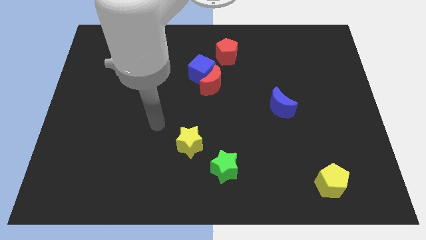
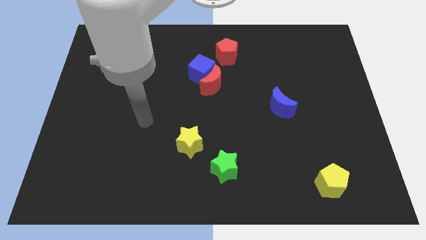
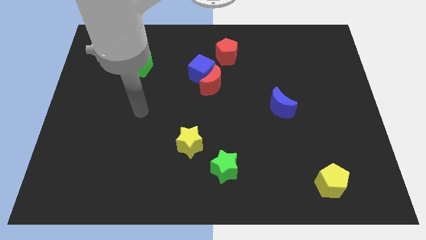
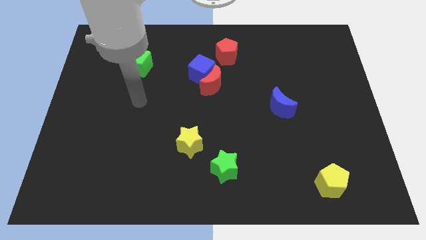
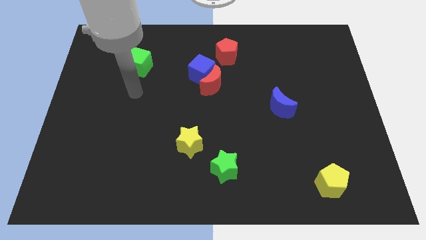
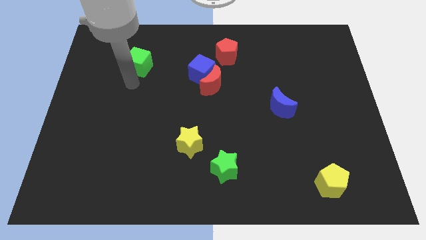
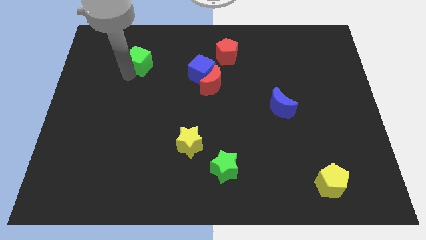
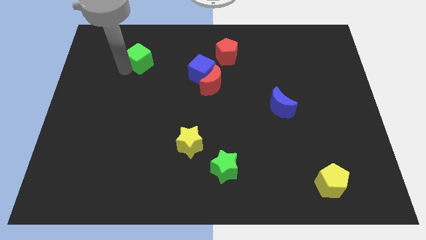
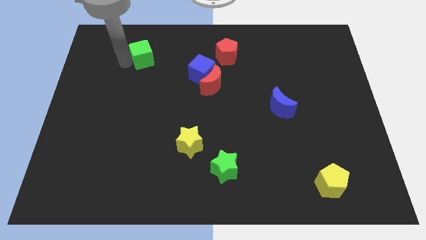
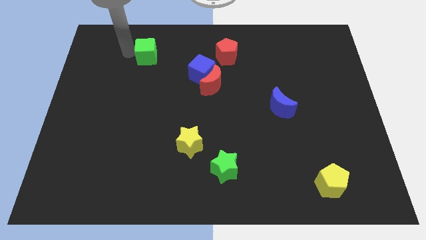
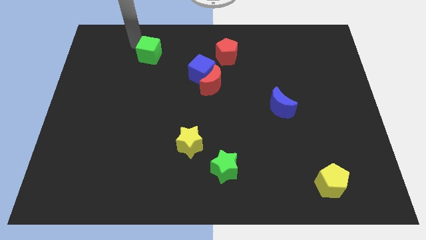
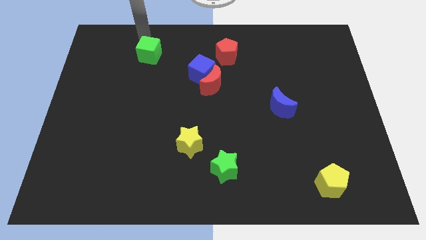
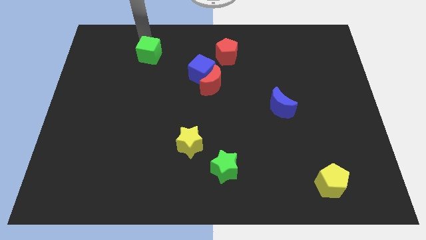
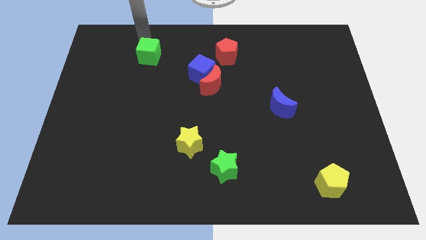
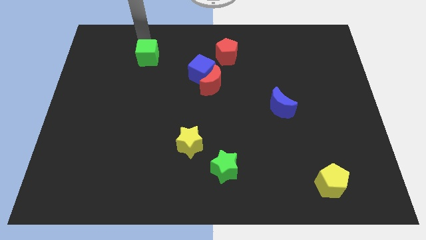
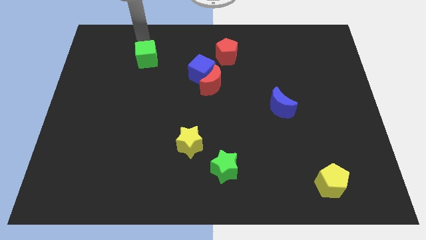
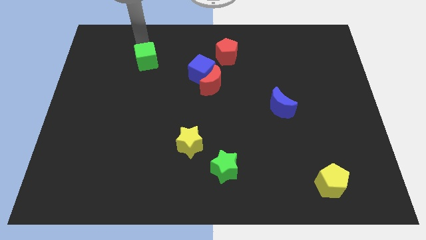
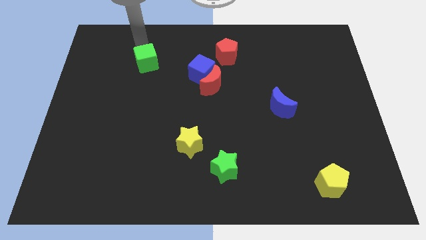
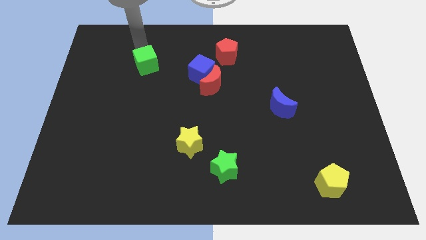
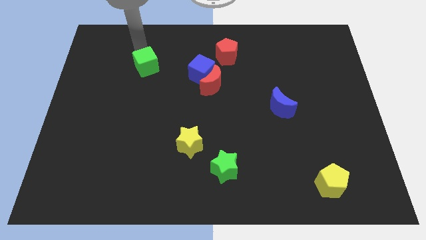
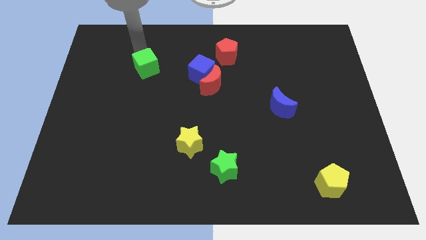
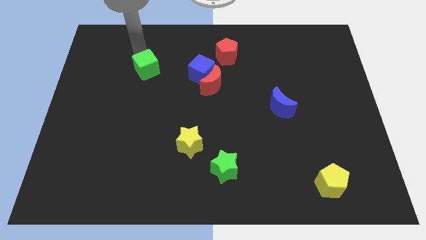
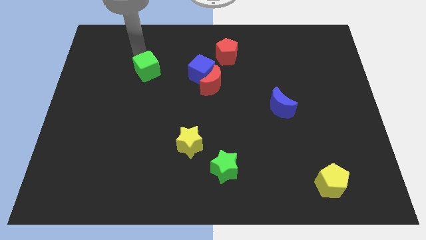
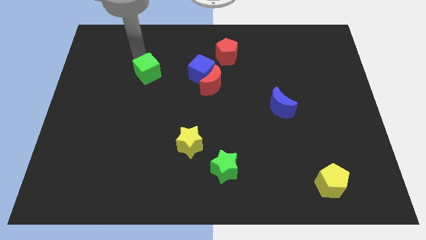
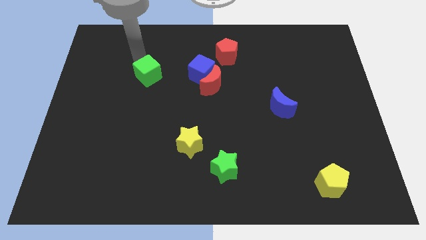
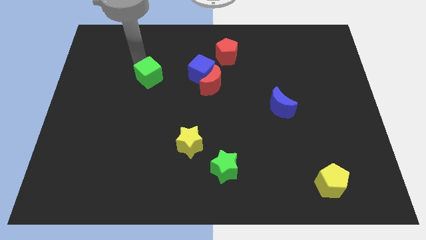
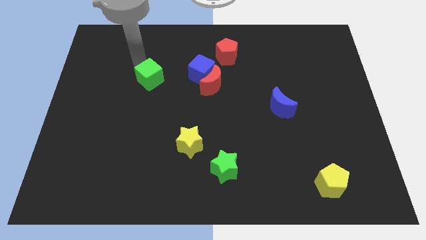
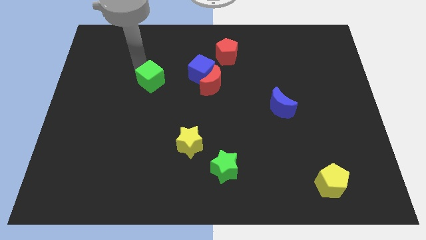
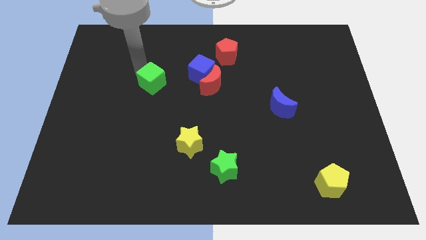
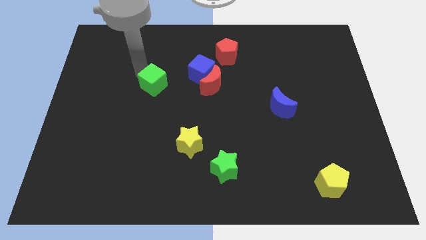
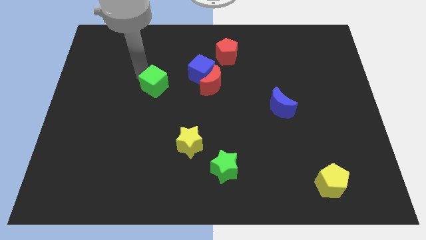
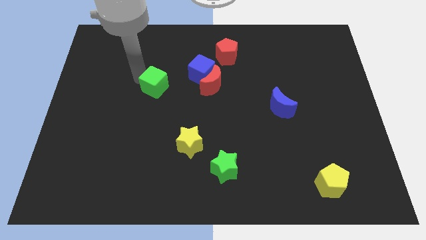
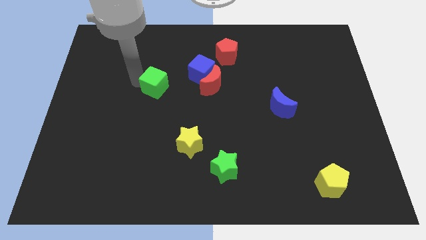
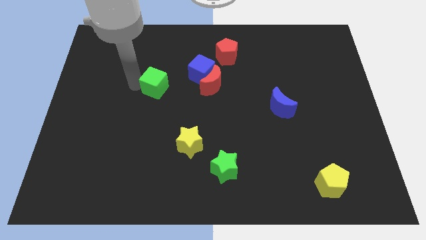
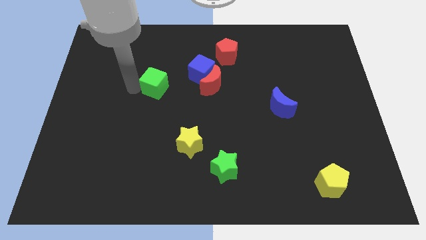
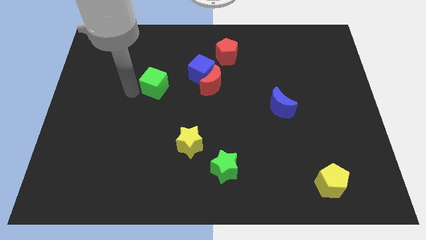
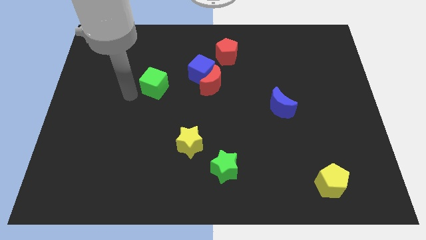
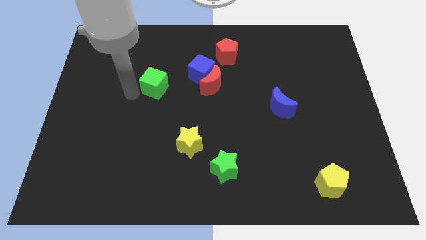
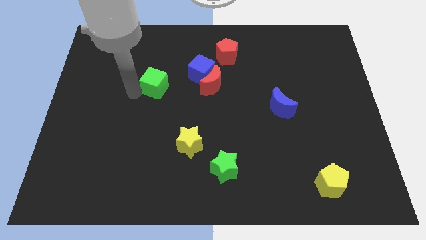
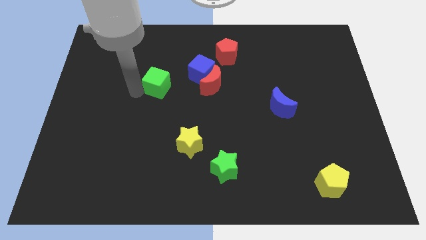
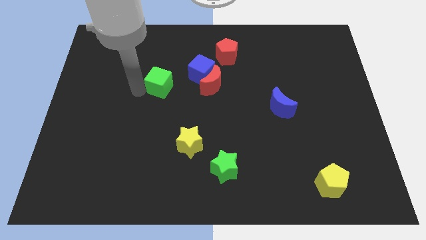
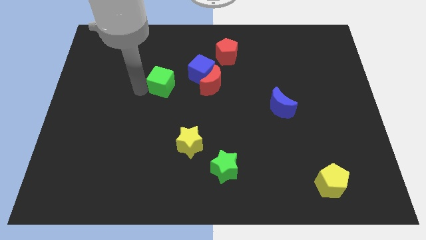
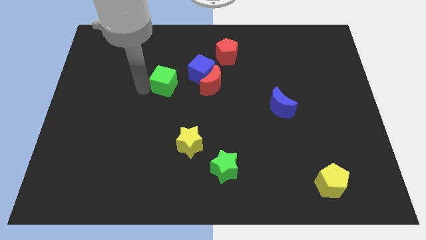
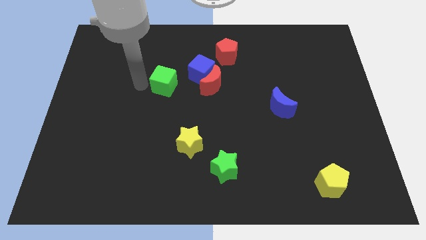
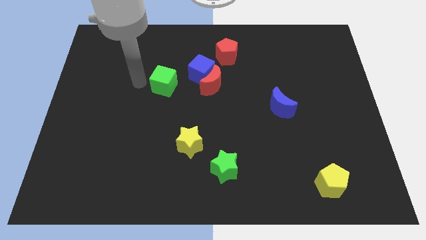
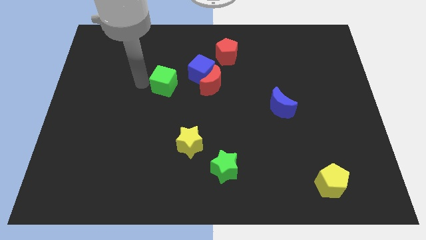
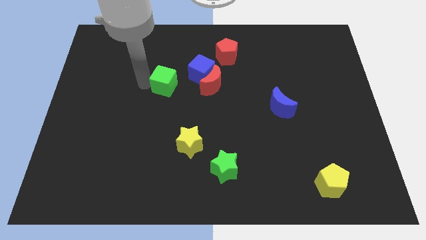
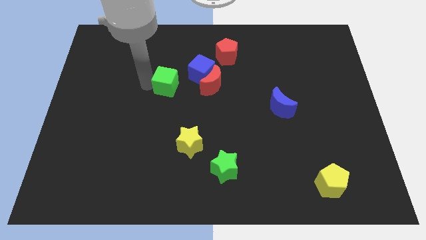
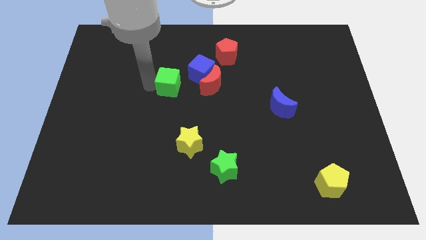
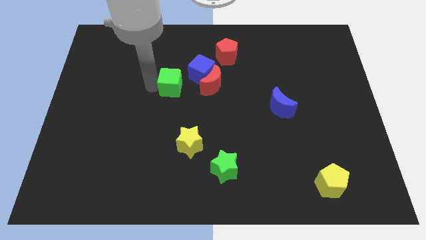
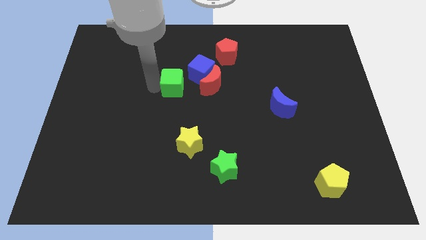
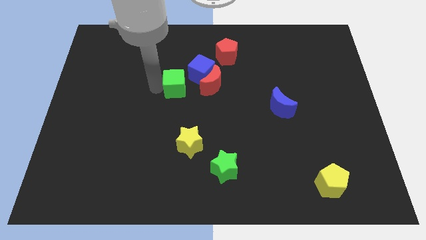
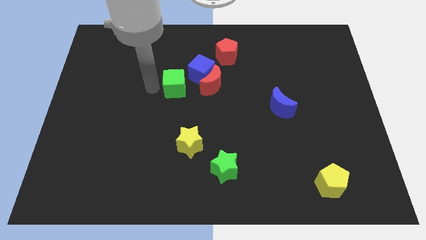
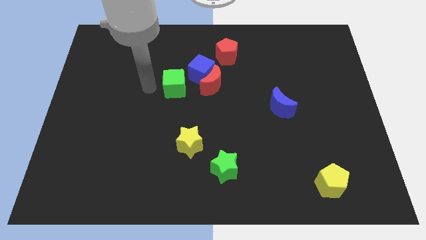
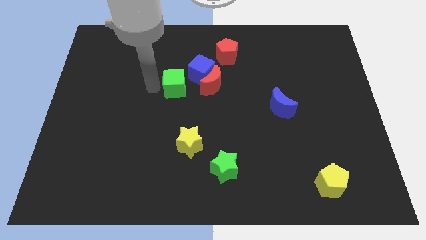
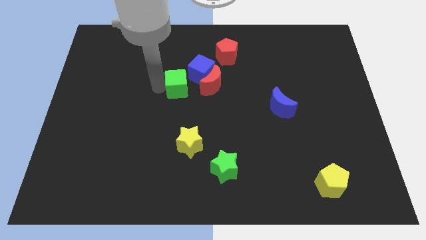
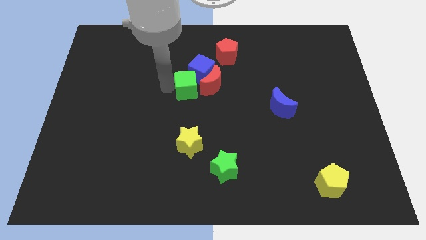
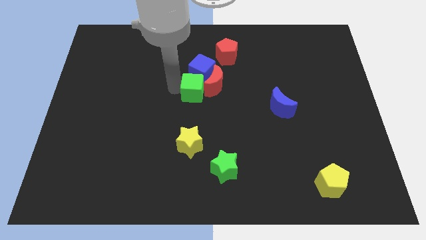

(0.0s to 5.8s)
move the green cube next to the red moon

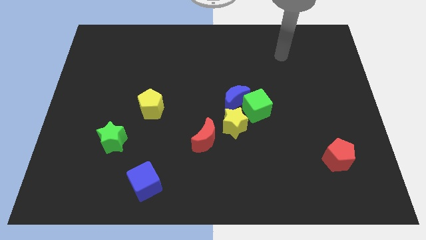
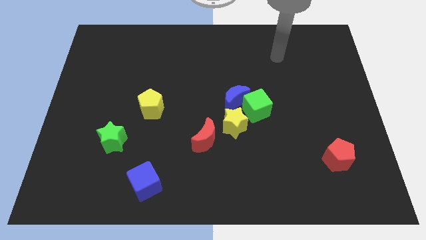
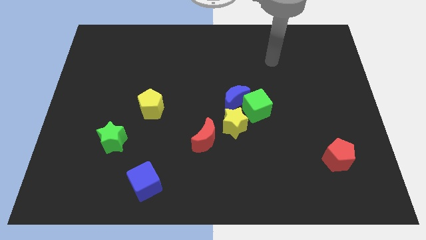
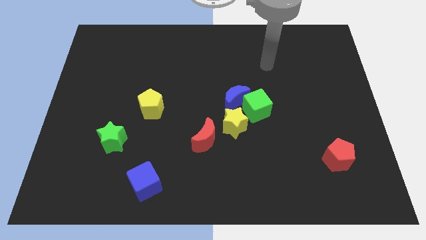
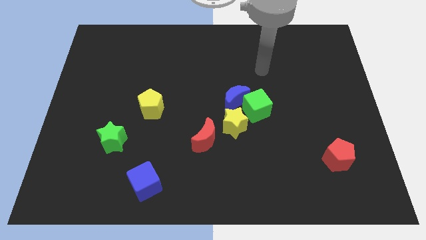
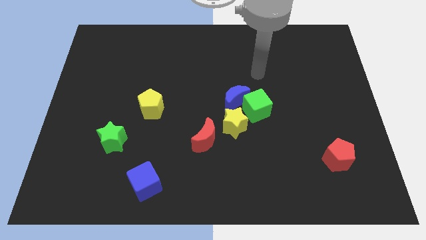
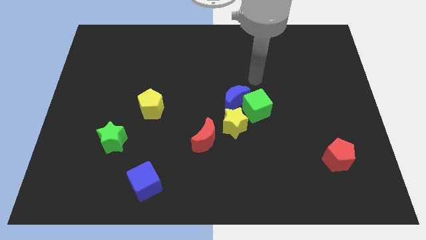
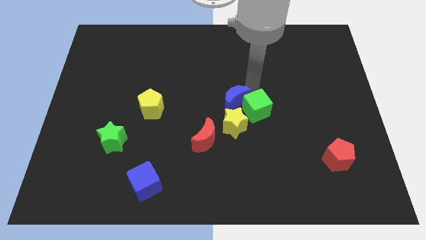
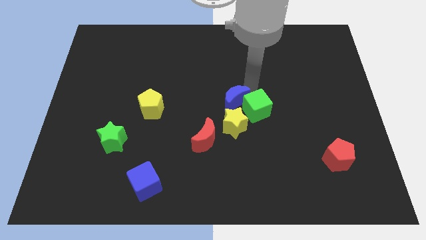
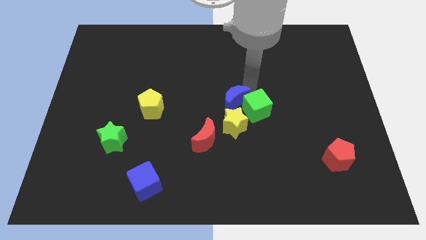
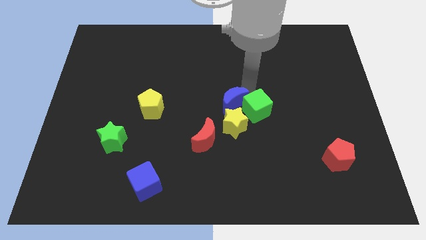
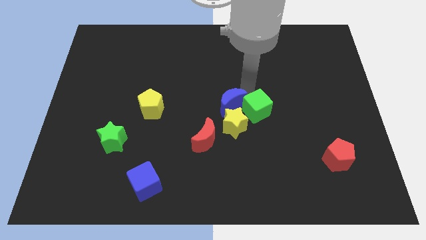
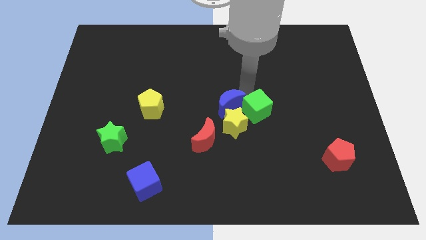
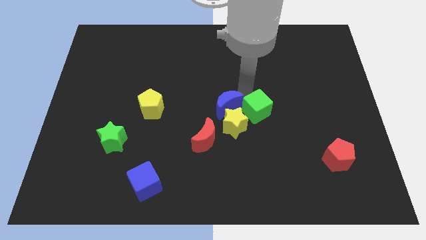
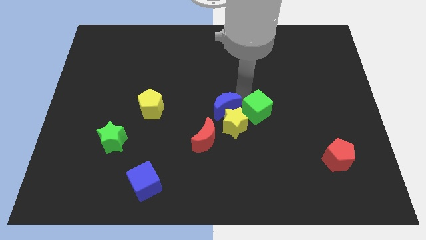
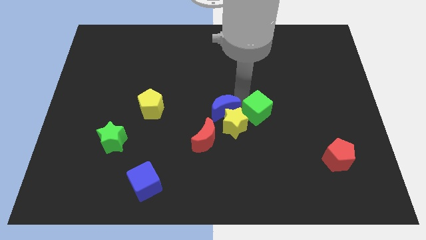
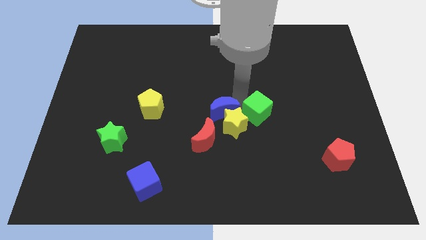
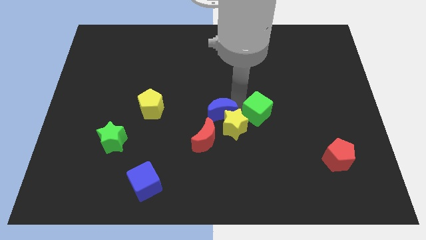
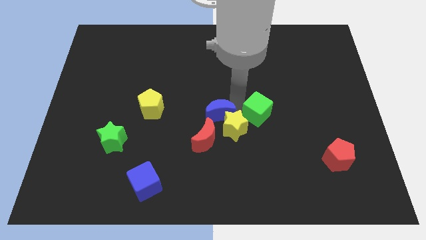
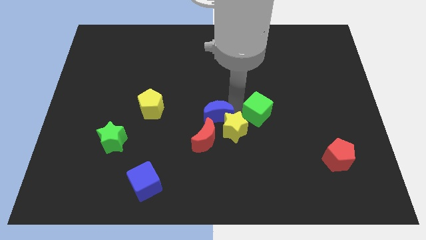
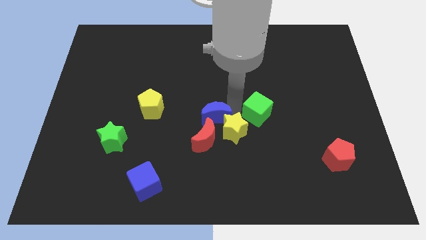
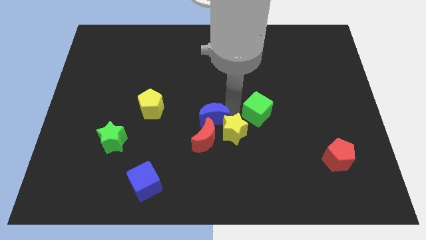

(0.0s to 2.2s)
put the blue moon towards the red moon
